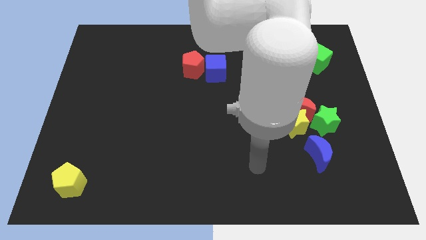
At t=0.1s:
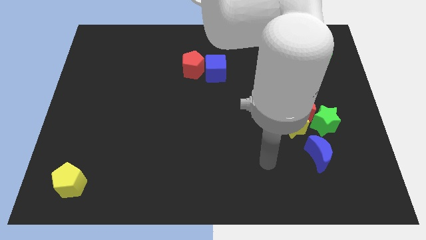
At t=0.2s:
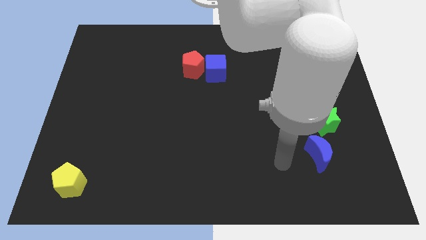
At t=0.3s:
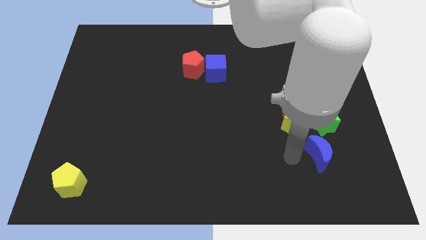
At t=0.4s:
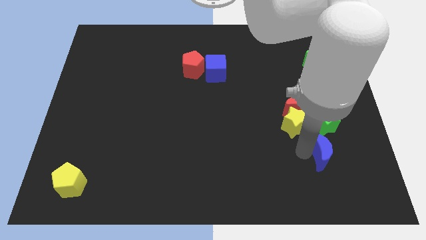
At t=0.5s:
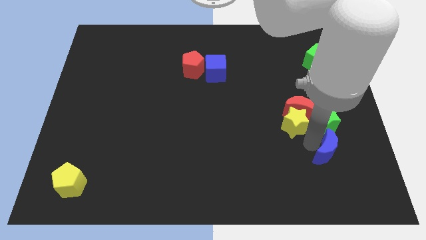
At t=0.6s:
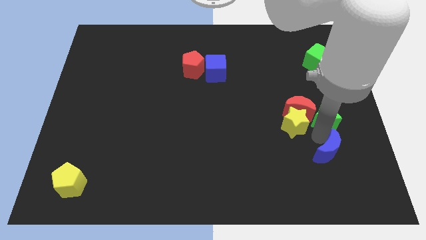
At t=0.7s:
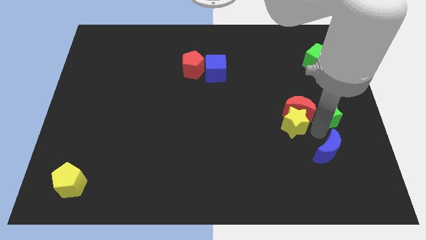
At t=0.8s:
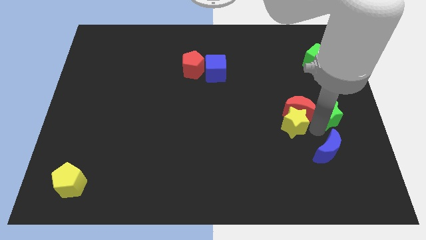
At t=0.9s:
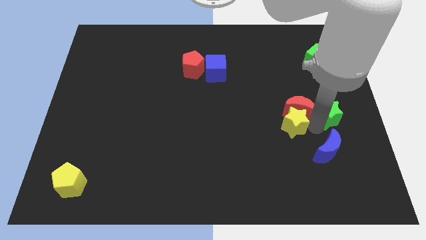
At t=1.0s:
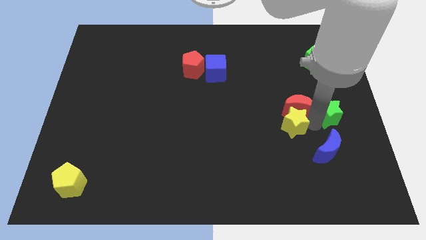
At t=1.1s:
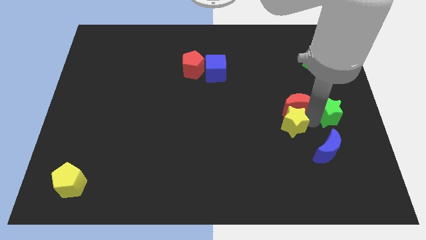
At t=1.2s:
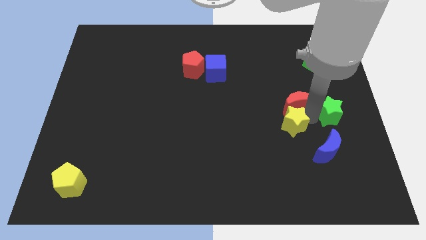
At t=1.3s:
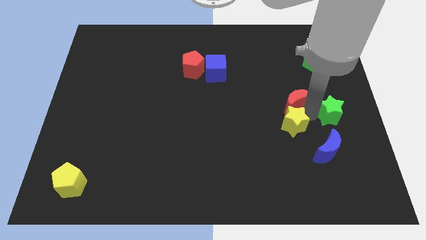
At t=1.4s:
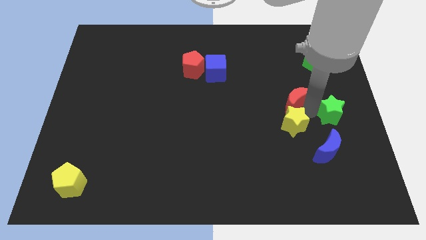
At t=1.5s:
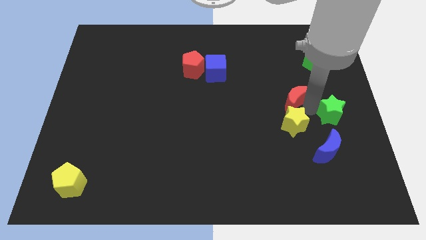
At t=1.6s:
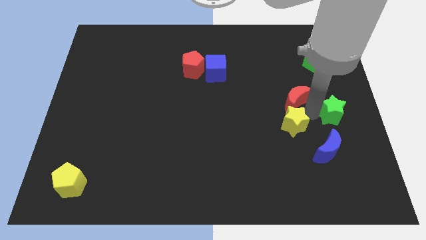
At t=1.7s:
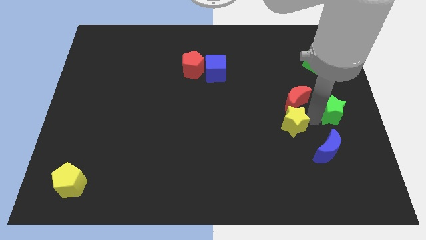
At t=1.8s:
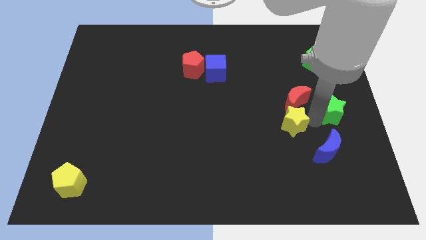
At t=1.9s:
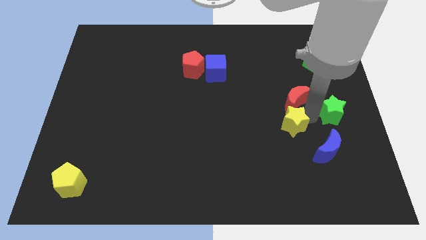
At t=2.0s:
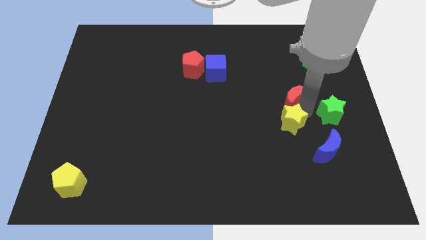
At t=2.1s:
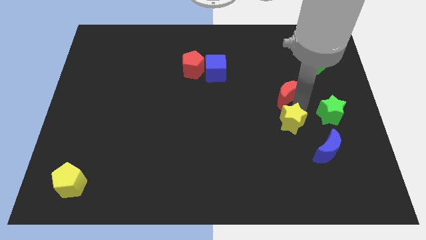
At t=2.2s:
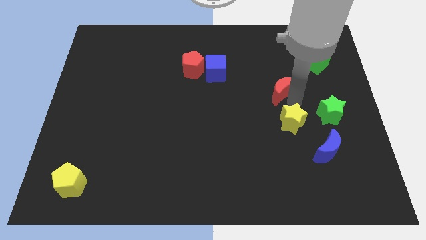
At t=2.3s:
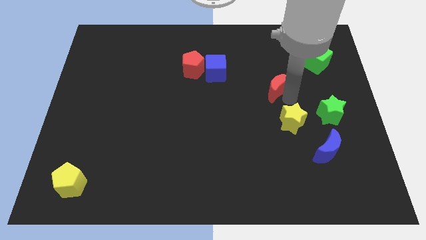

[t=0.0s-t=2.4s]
move the red moon away from the yellow star and green star

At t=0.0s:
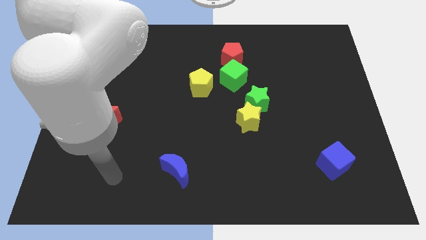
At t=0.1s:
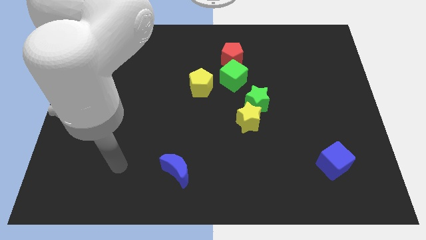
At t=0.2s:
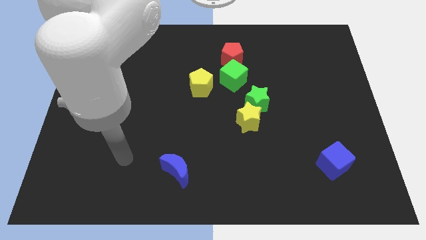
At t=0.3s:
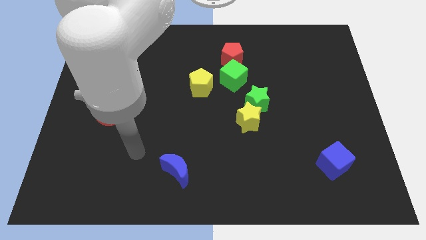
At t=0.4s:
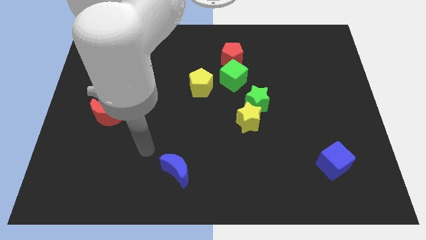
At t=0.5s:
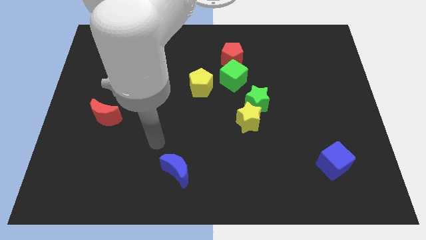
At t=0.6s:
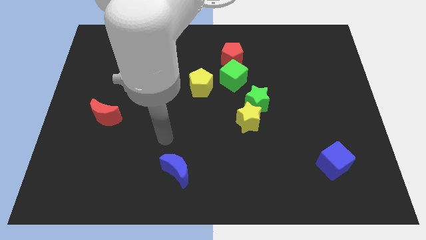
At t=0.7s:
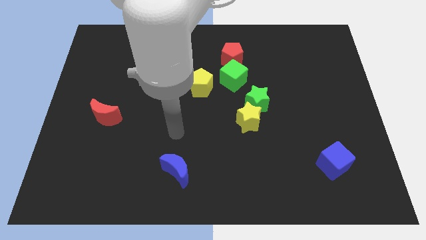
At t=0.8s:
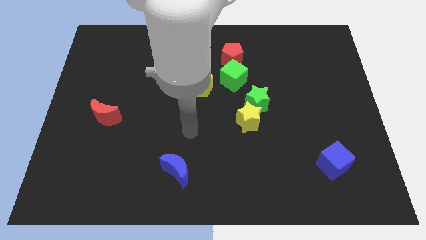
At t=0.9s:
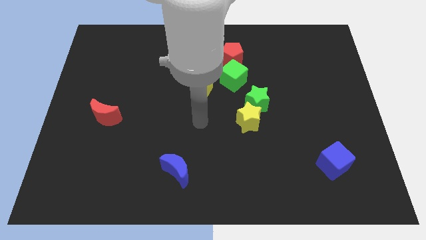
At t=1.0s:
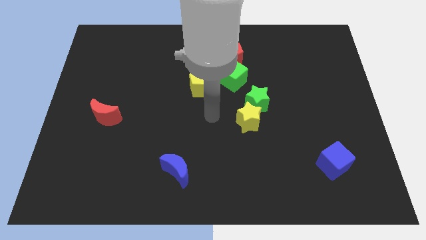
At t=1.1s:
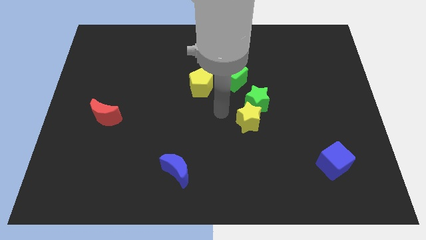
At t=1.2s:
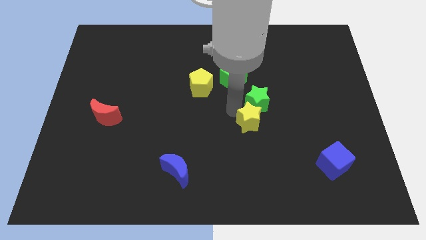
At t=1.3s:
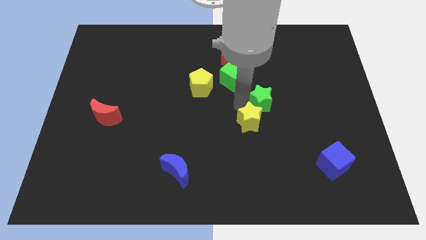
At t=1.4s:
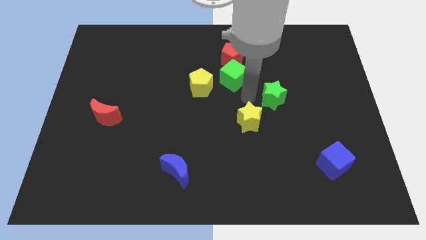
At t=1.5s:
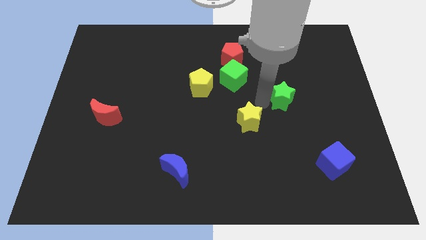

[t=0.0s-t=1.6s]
pull the yellow star apart from the green star

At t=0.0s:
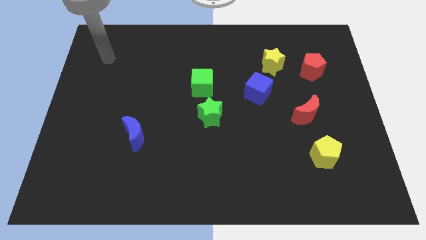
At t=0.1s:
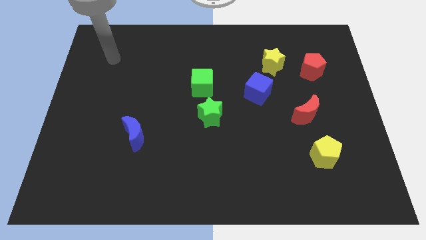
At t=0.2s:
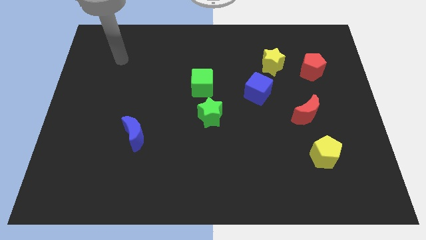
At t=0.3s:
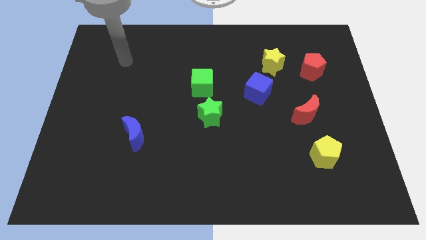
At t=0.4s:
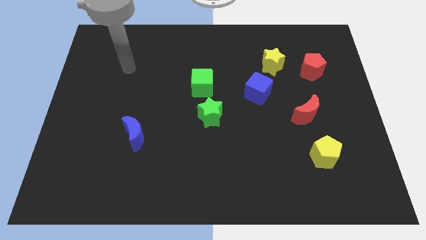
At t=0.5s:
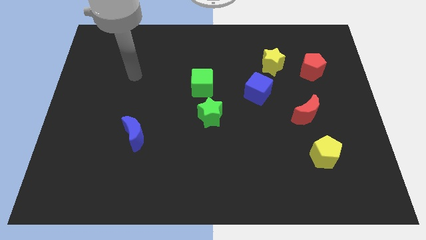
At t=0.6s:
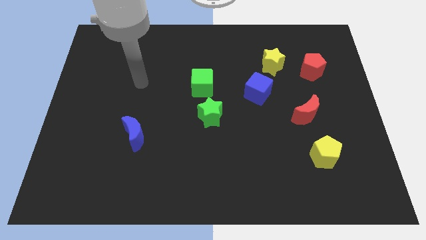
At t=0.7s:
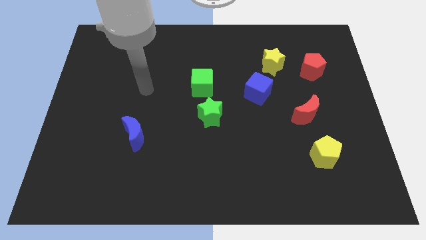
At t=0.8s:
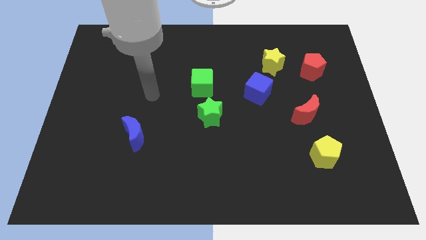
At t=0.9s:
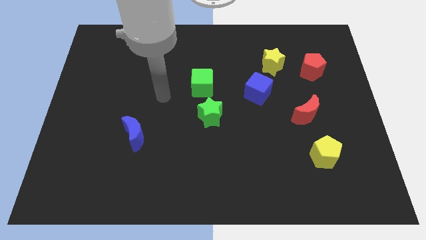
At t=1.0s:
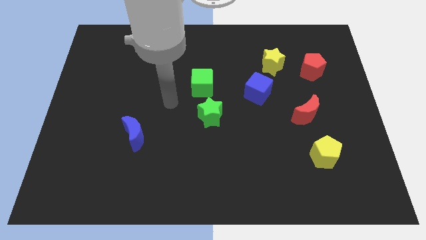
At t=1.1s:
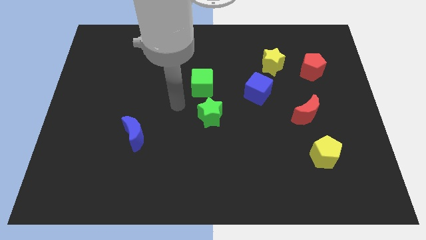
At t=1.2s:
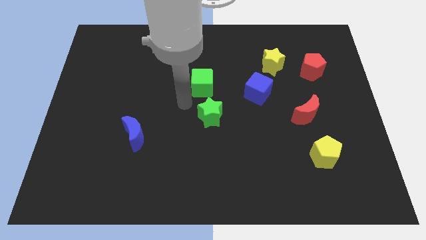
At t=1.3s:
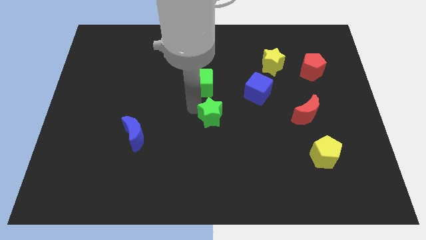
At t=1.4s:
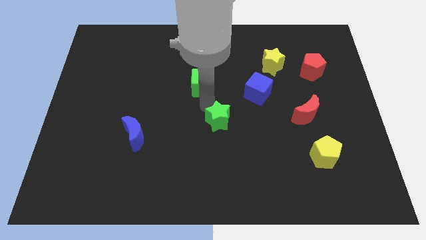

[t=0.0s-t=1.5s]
move the green cube away from the green star

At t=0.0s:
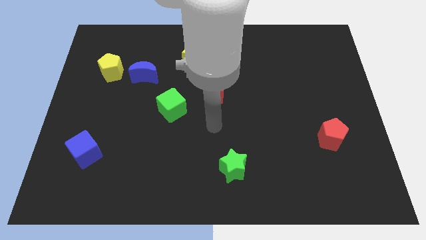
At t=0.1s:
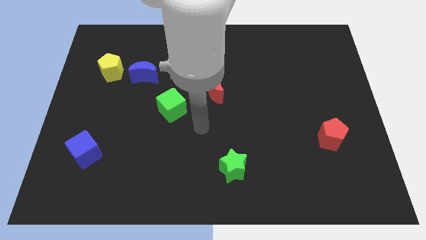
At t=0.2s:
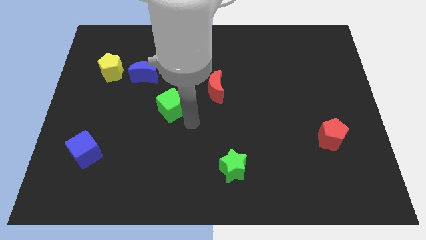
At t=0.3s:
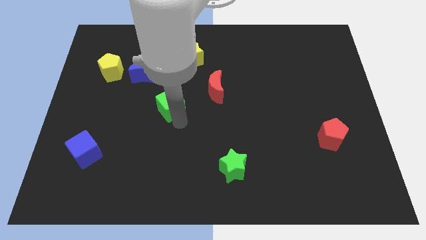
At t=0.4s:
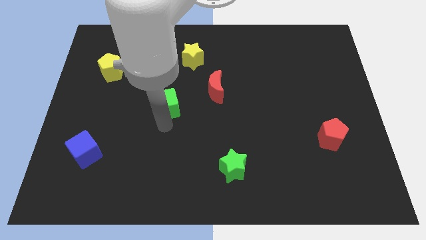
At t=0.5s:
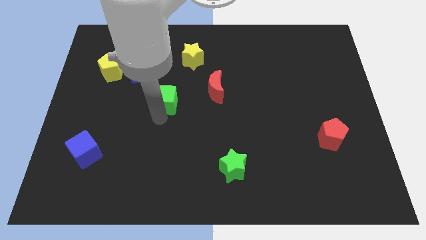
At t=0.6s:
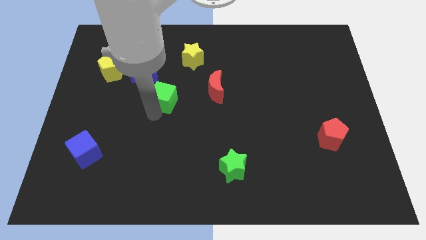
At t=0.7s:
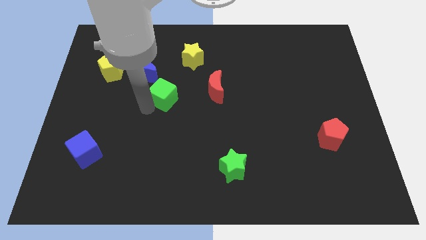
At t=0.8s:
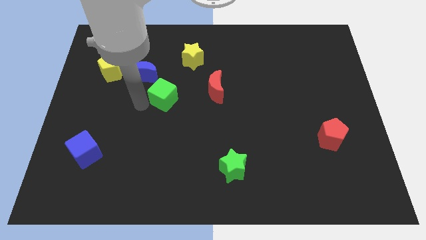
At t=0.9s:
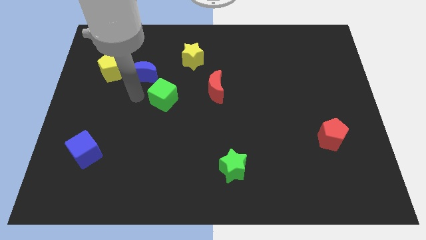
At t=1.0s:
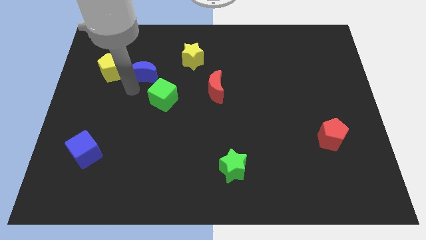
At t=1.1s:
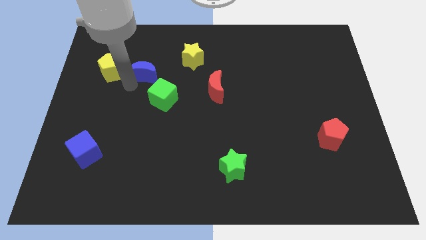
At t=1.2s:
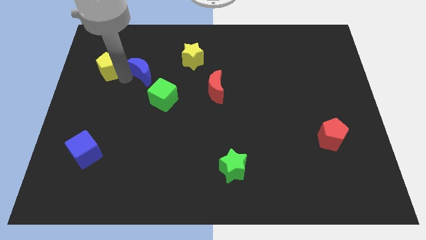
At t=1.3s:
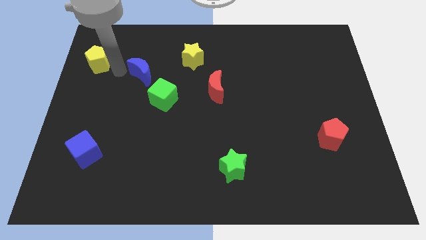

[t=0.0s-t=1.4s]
pull the blue moon apart from the yellow pentagon

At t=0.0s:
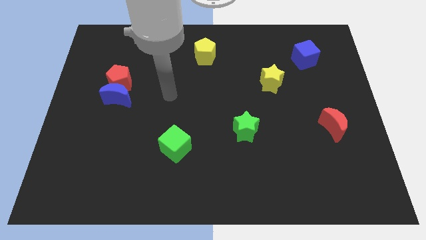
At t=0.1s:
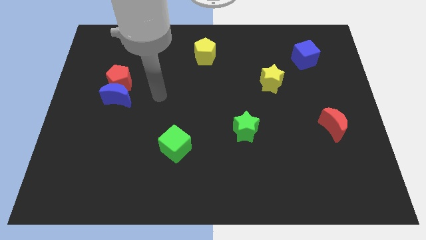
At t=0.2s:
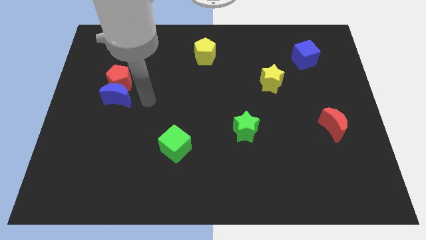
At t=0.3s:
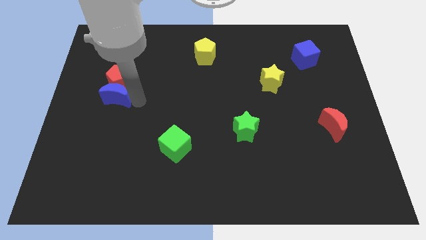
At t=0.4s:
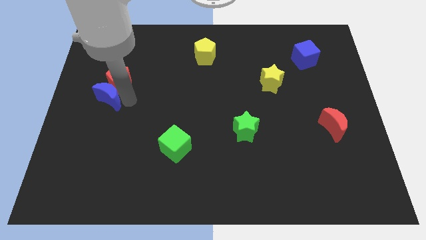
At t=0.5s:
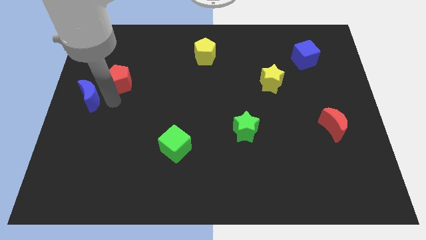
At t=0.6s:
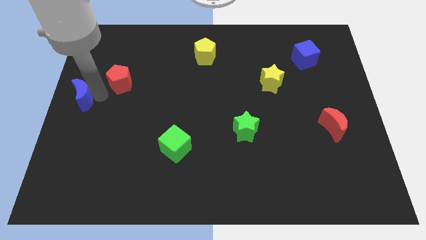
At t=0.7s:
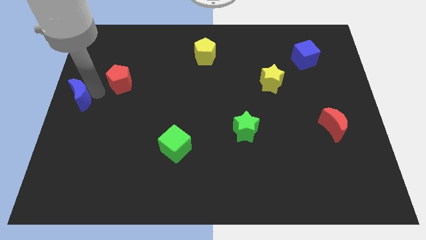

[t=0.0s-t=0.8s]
pull the red pentagon apart from the blue moon

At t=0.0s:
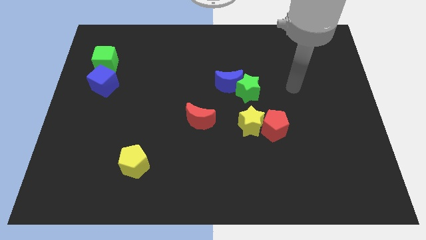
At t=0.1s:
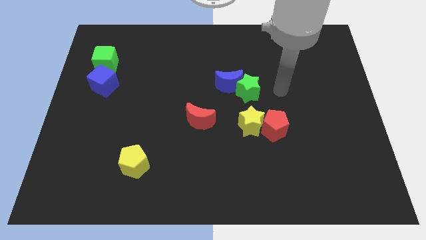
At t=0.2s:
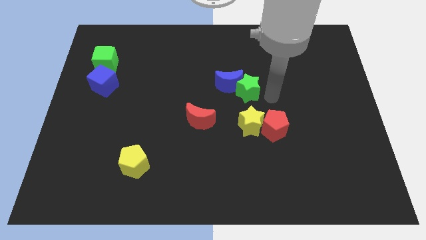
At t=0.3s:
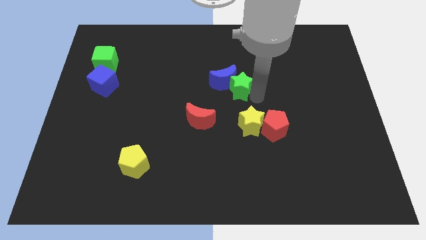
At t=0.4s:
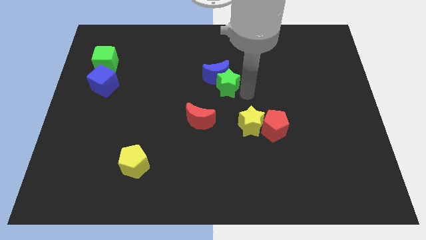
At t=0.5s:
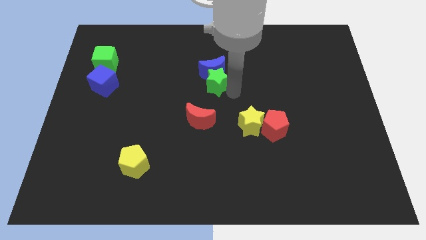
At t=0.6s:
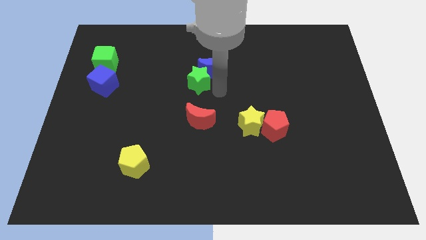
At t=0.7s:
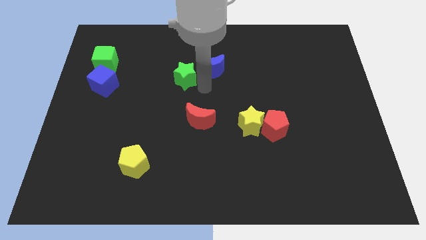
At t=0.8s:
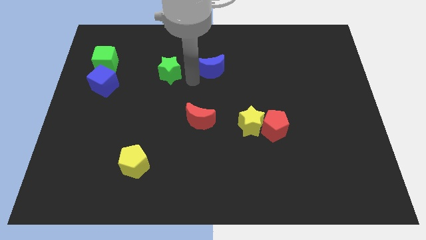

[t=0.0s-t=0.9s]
move the blue moon away from the green star

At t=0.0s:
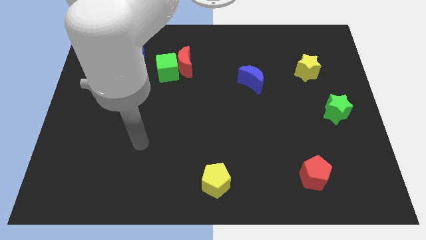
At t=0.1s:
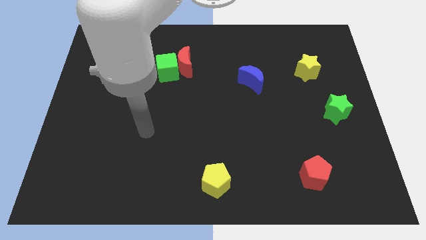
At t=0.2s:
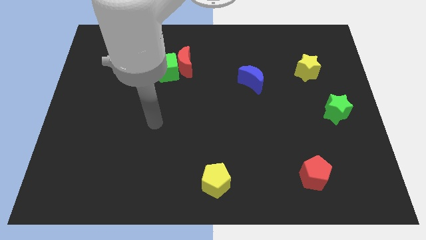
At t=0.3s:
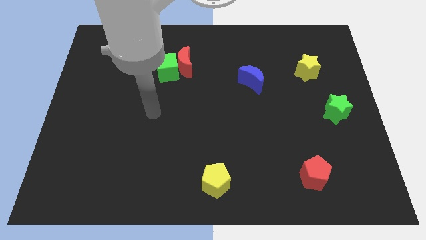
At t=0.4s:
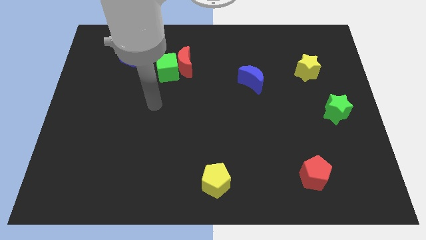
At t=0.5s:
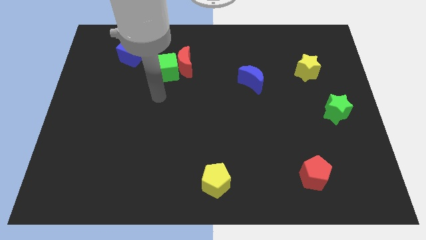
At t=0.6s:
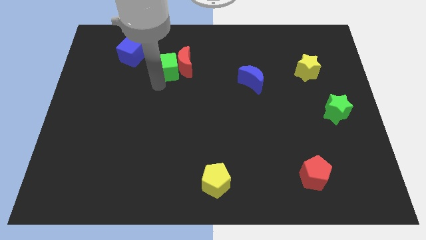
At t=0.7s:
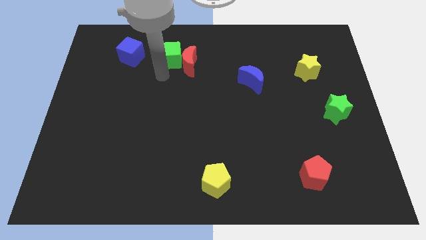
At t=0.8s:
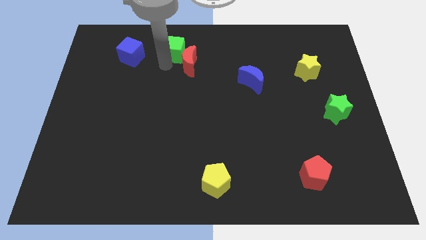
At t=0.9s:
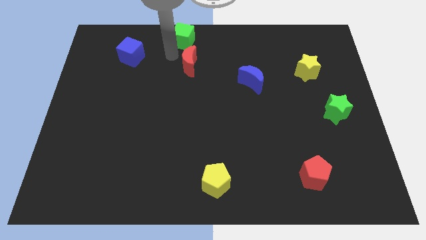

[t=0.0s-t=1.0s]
pull the red moon apart from the green cube
